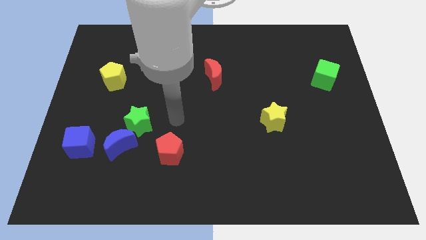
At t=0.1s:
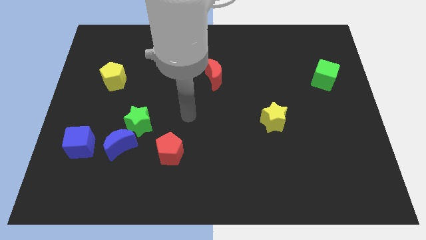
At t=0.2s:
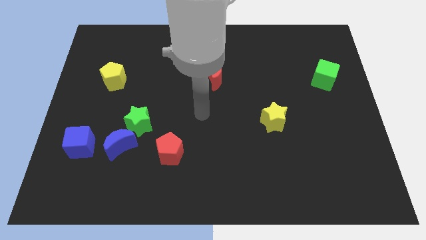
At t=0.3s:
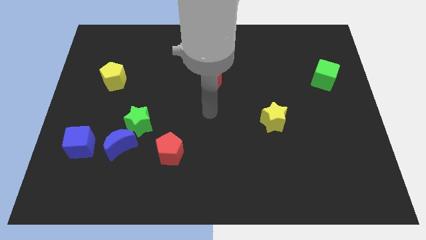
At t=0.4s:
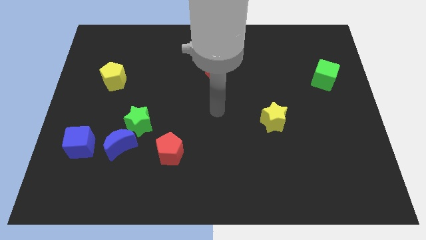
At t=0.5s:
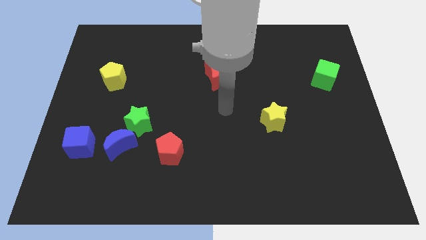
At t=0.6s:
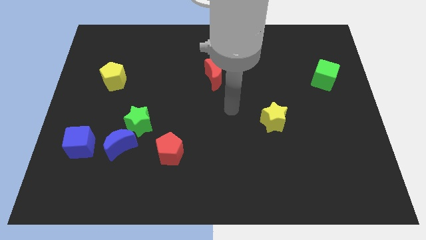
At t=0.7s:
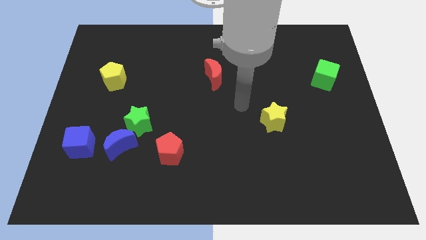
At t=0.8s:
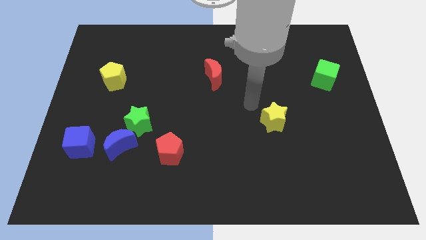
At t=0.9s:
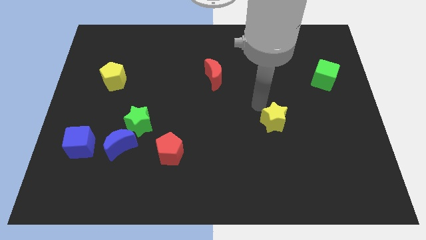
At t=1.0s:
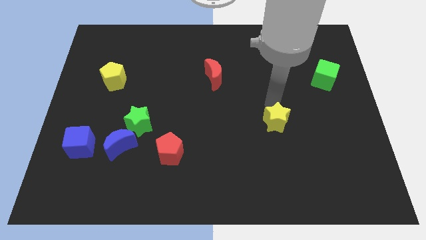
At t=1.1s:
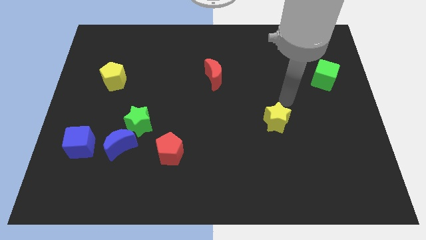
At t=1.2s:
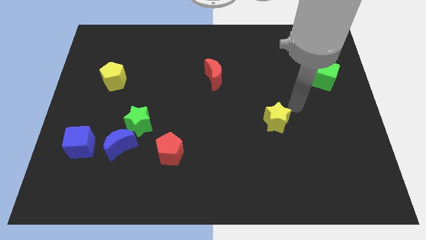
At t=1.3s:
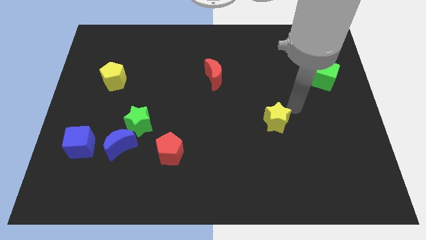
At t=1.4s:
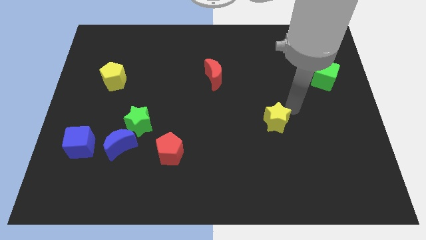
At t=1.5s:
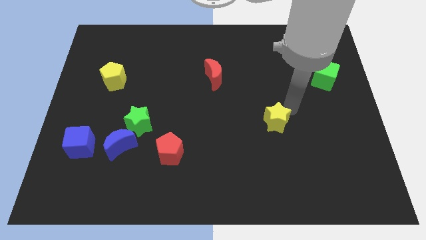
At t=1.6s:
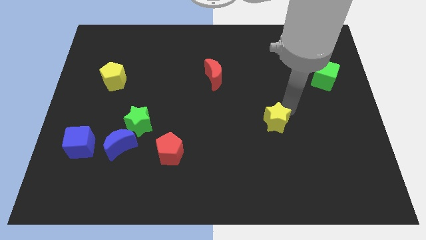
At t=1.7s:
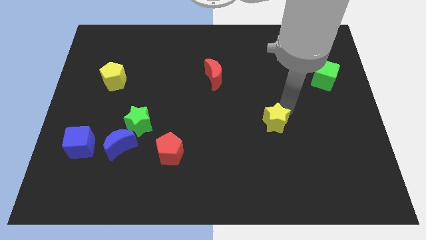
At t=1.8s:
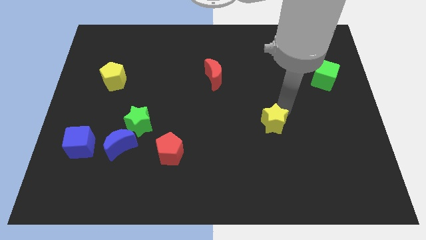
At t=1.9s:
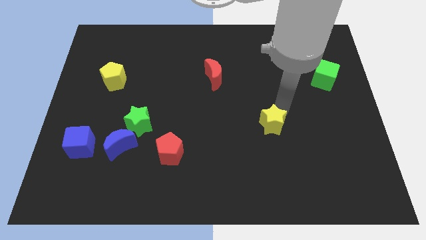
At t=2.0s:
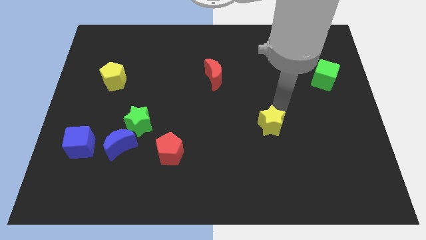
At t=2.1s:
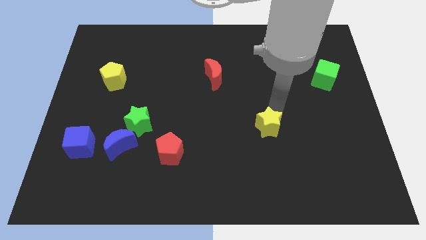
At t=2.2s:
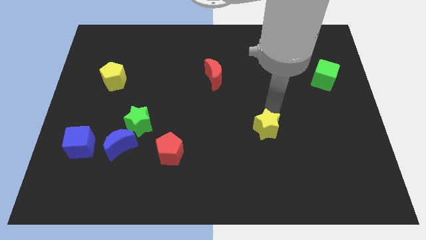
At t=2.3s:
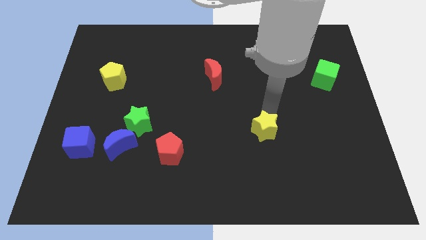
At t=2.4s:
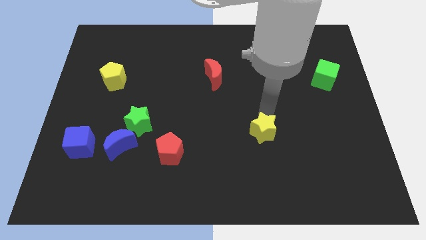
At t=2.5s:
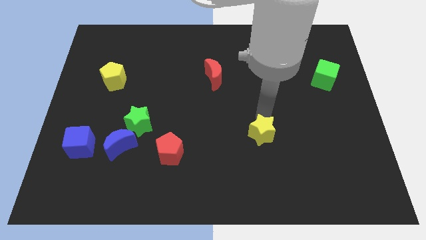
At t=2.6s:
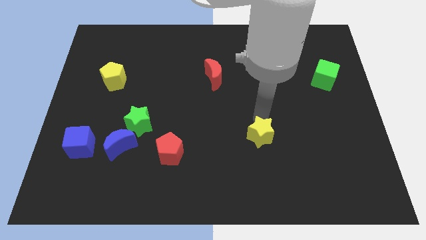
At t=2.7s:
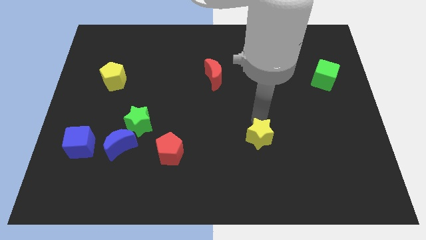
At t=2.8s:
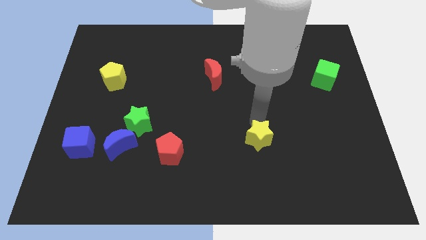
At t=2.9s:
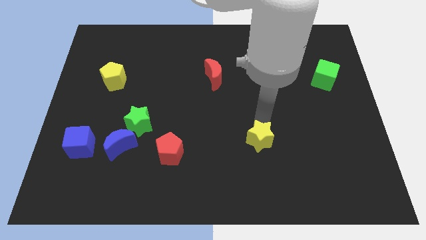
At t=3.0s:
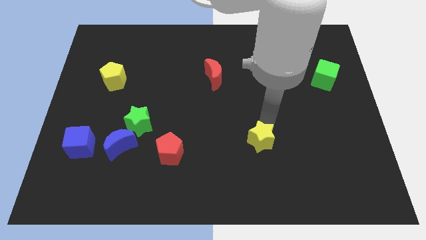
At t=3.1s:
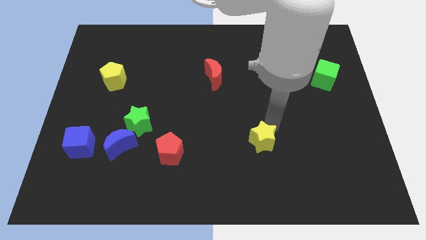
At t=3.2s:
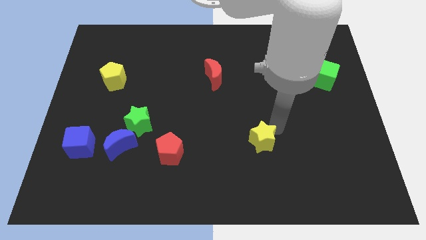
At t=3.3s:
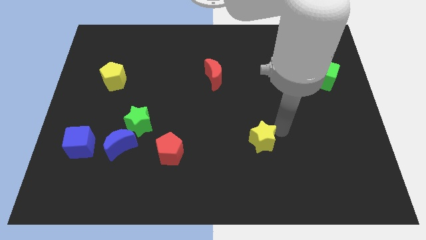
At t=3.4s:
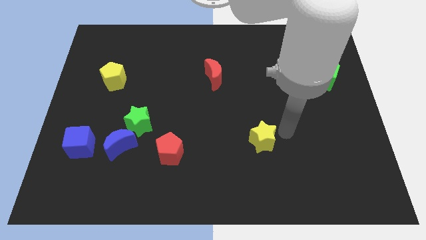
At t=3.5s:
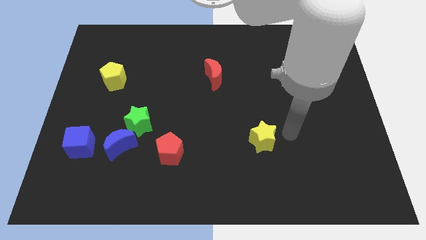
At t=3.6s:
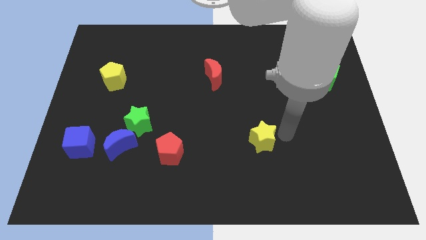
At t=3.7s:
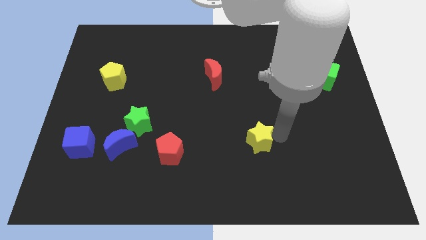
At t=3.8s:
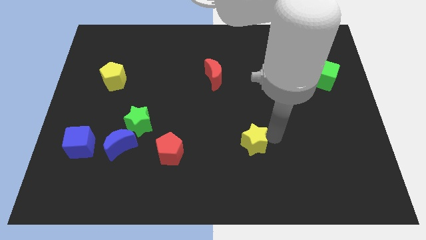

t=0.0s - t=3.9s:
slide the yellow star diagonally downwards and left somewhat

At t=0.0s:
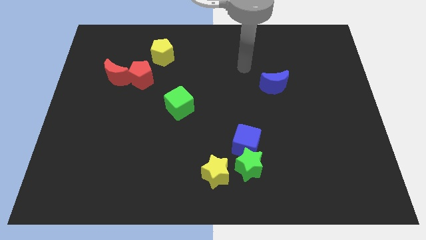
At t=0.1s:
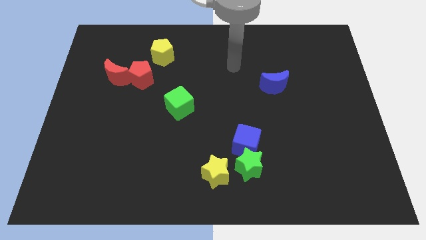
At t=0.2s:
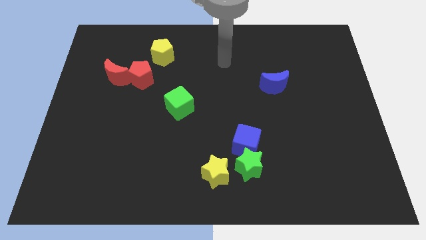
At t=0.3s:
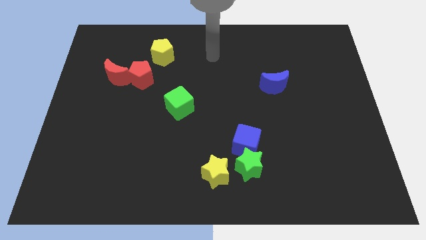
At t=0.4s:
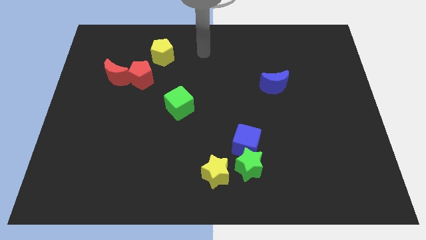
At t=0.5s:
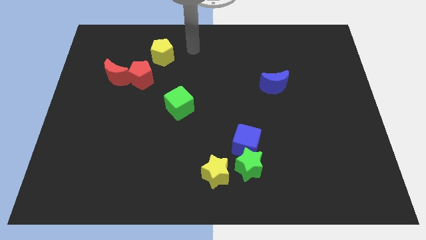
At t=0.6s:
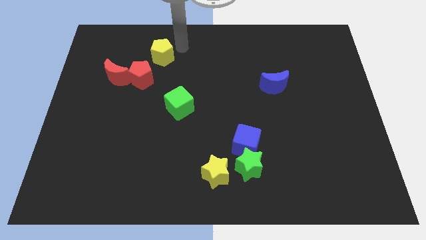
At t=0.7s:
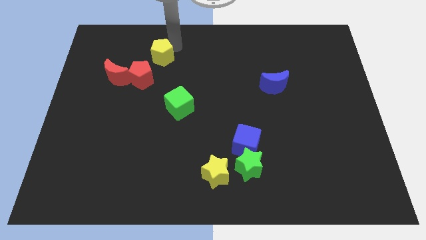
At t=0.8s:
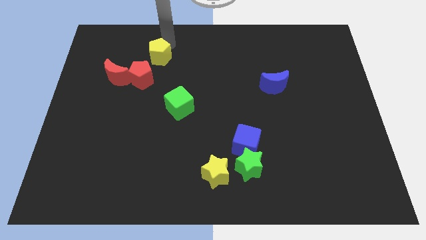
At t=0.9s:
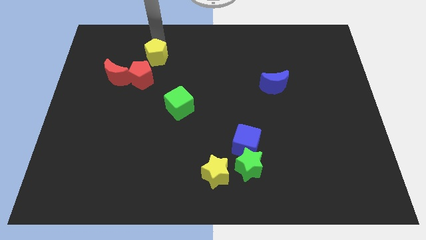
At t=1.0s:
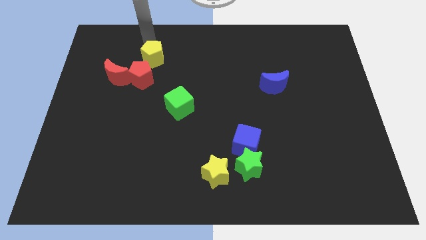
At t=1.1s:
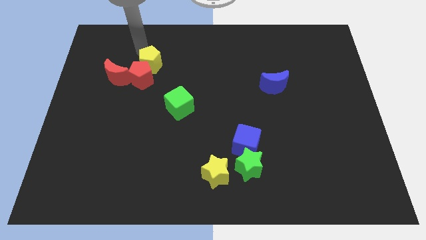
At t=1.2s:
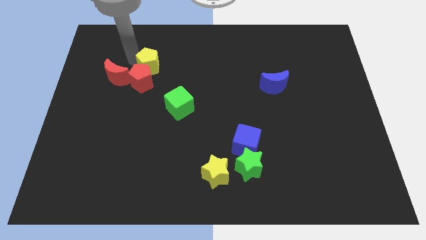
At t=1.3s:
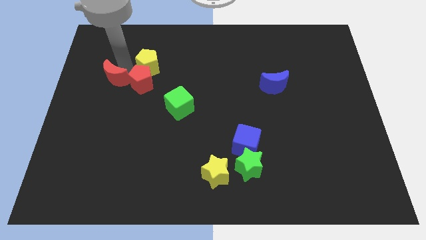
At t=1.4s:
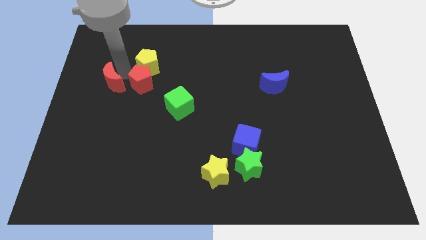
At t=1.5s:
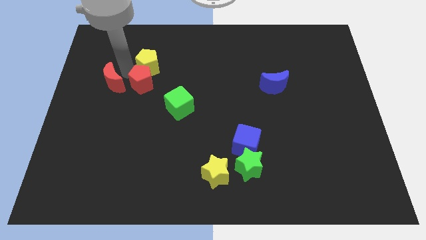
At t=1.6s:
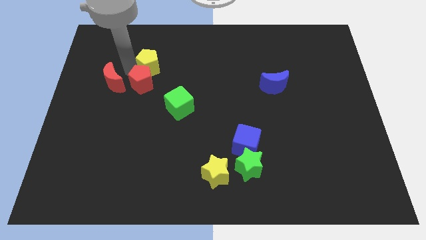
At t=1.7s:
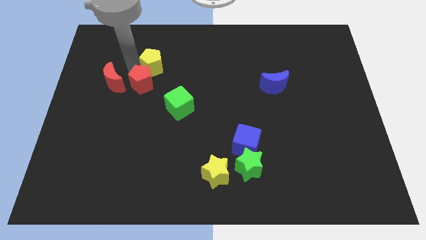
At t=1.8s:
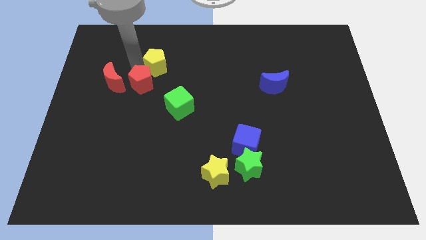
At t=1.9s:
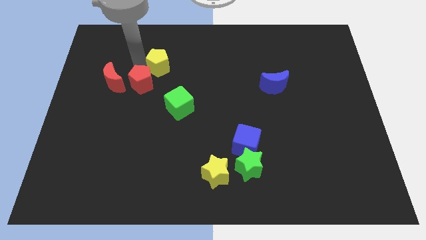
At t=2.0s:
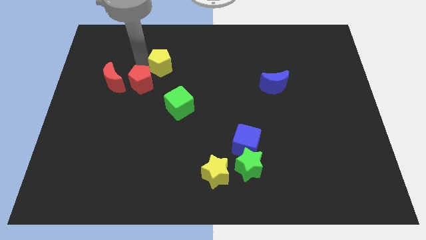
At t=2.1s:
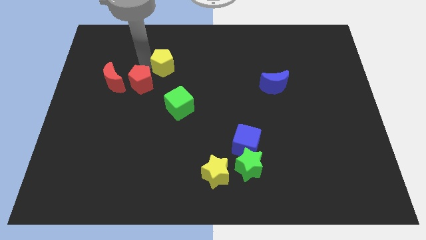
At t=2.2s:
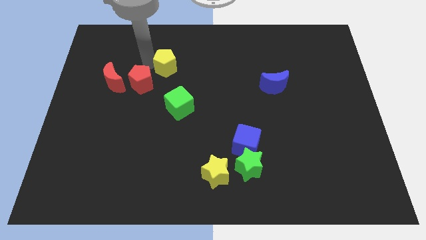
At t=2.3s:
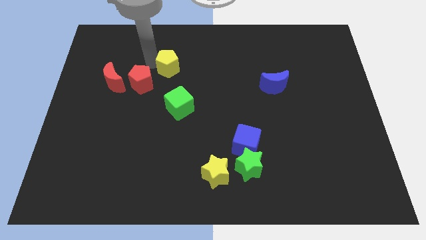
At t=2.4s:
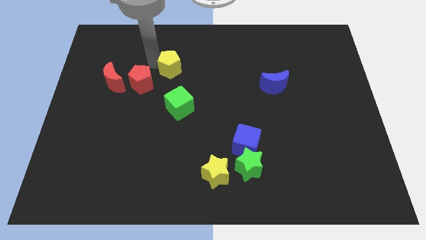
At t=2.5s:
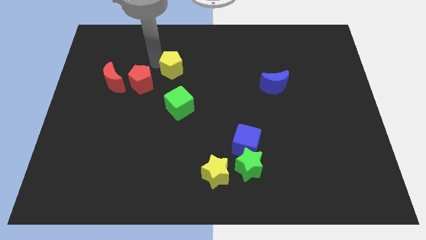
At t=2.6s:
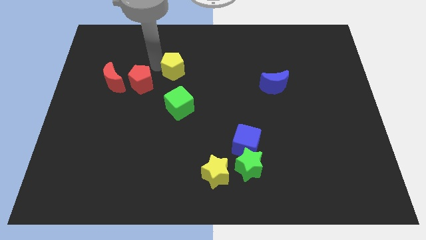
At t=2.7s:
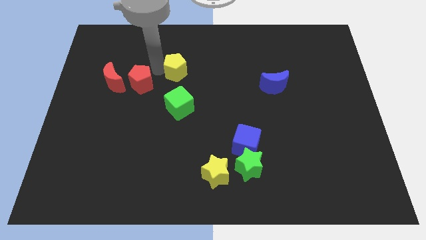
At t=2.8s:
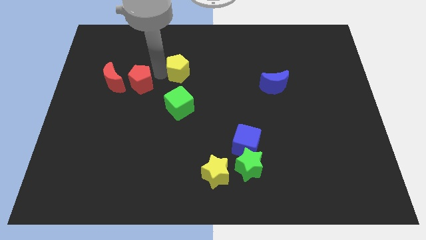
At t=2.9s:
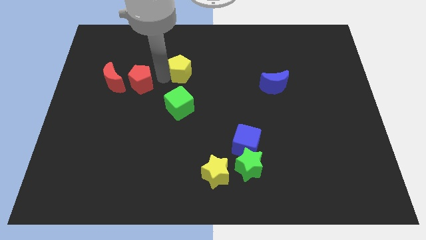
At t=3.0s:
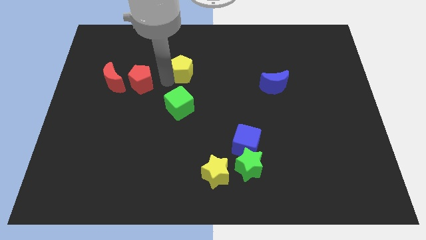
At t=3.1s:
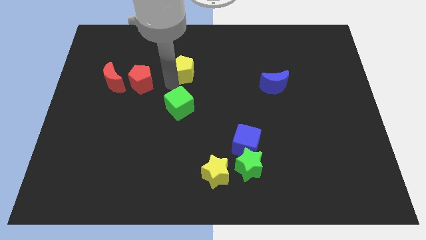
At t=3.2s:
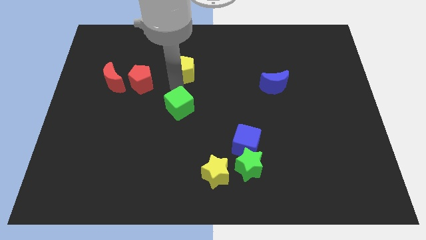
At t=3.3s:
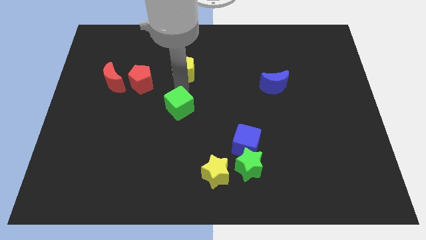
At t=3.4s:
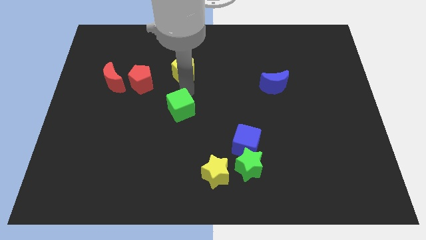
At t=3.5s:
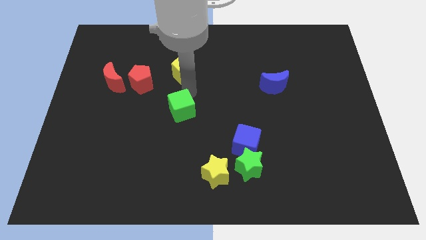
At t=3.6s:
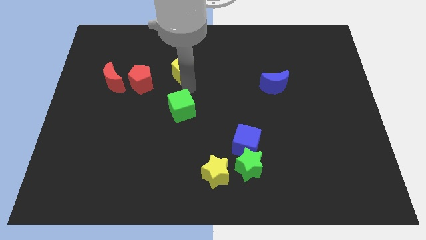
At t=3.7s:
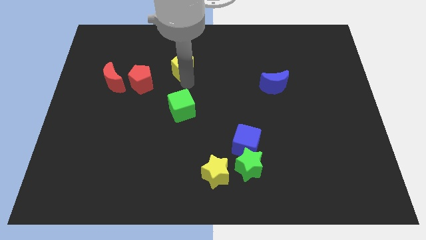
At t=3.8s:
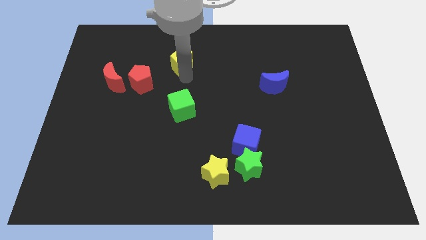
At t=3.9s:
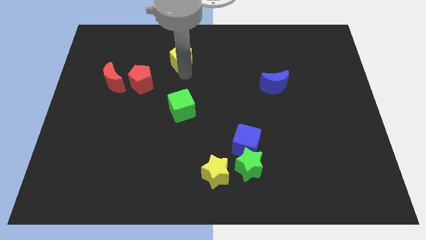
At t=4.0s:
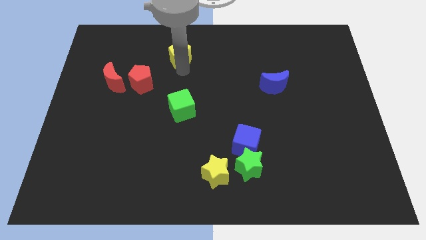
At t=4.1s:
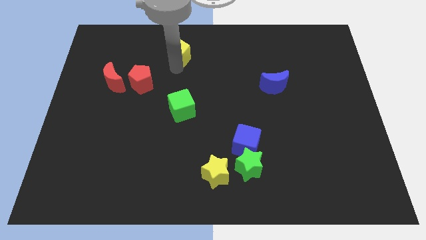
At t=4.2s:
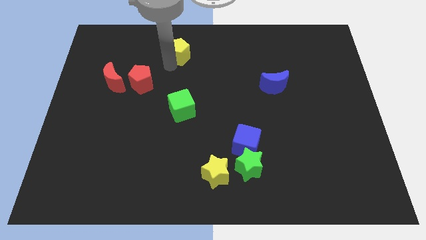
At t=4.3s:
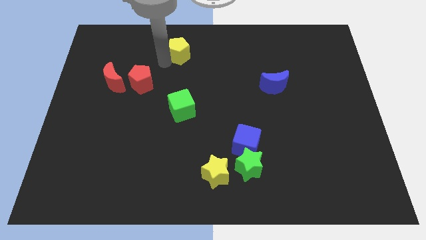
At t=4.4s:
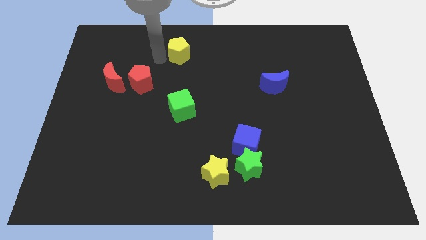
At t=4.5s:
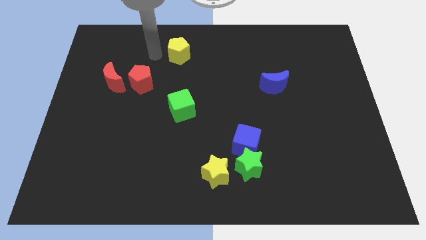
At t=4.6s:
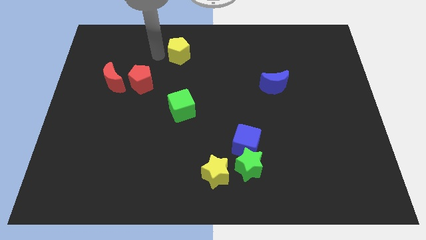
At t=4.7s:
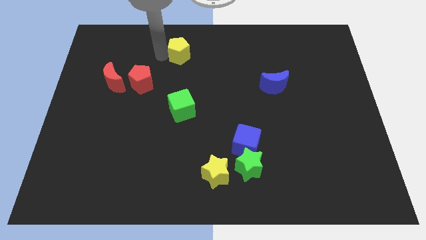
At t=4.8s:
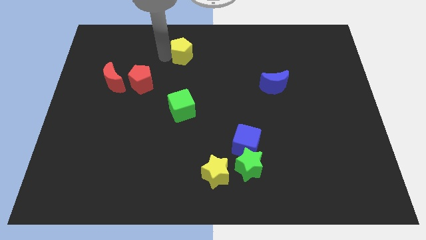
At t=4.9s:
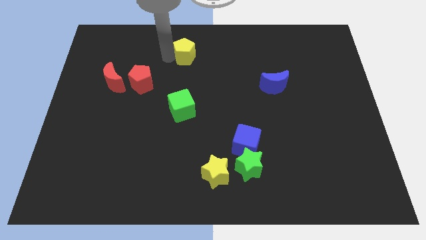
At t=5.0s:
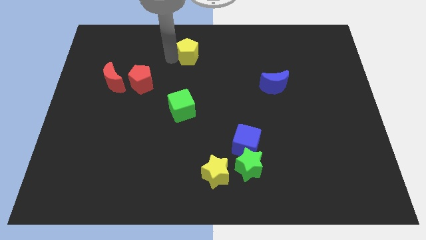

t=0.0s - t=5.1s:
move the yellow pentagon a little to the right
